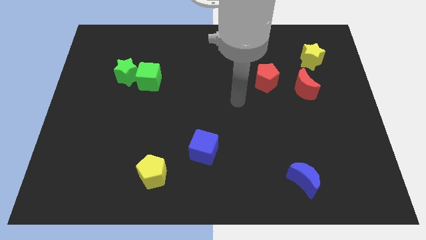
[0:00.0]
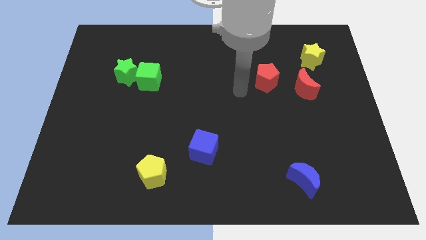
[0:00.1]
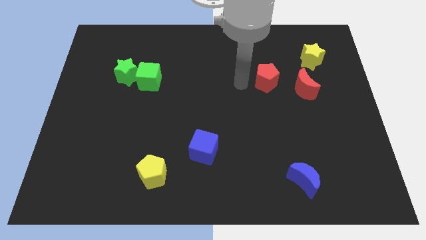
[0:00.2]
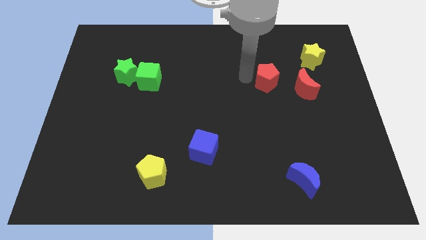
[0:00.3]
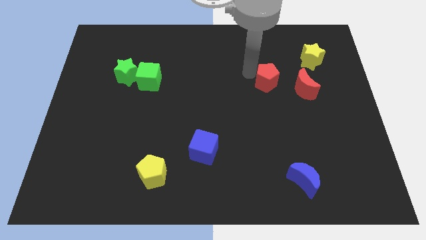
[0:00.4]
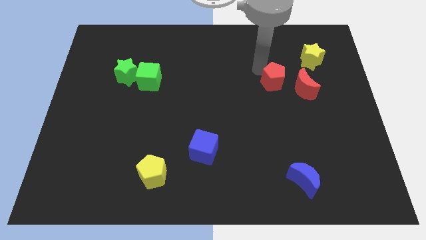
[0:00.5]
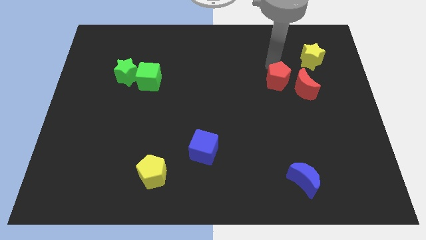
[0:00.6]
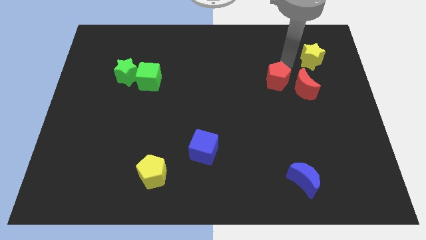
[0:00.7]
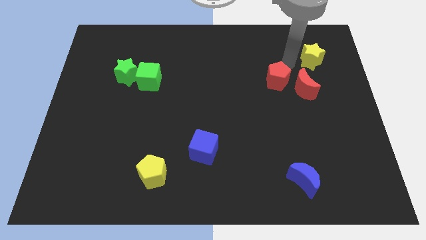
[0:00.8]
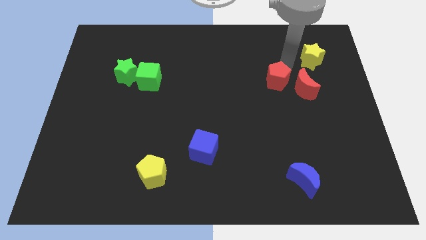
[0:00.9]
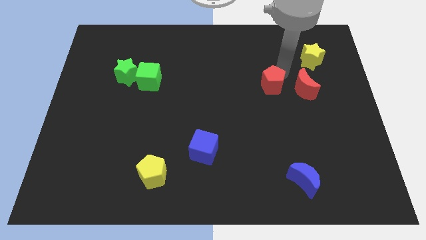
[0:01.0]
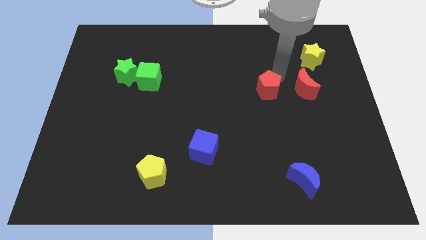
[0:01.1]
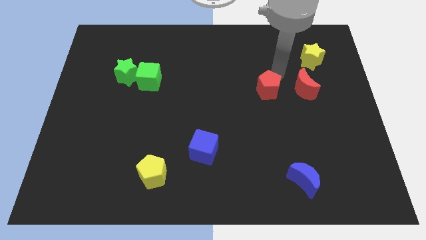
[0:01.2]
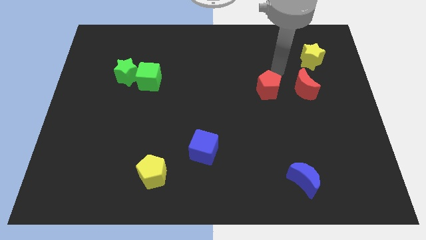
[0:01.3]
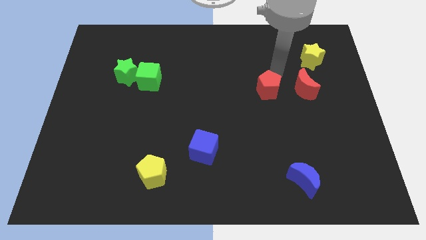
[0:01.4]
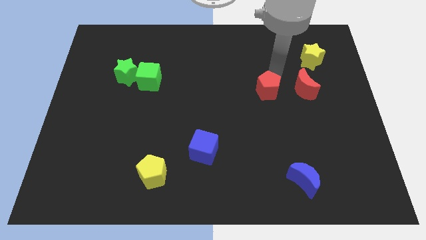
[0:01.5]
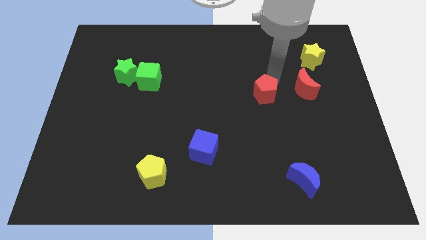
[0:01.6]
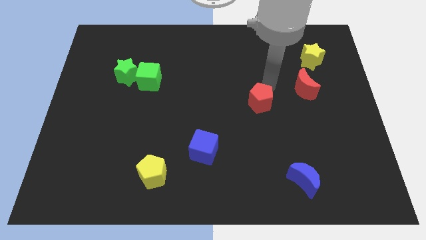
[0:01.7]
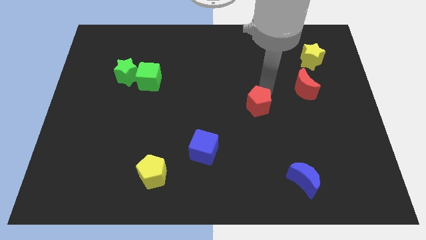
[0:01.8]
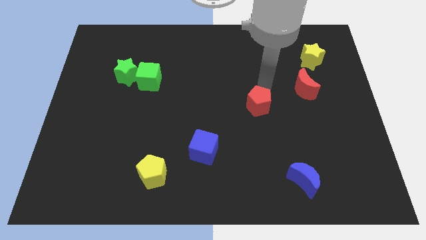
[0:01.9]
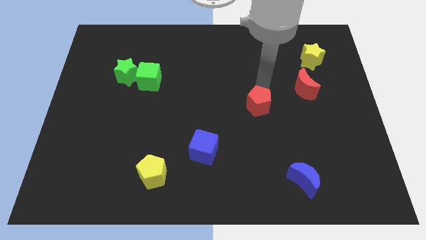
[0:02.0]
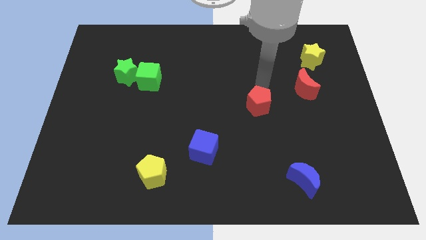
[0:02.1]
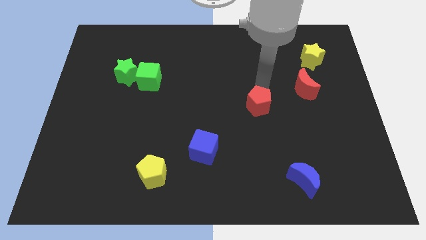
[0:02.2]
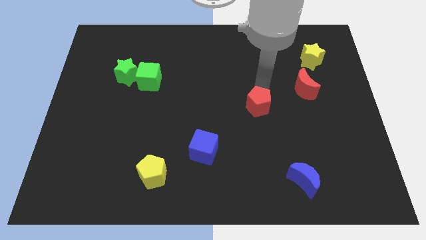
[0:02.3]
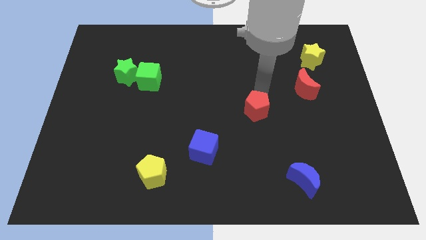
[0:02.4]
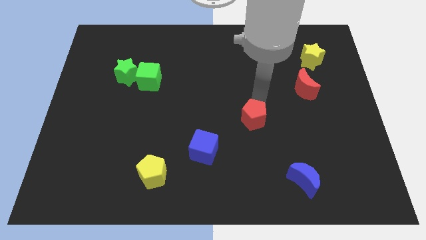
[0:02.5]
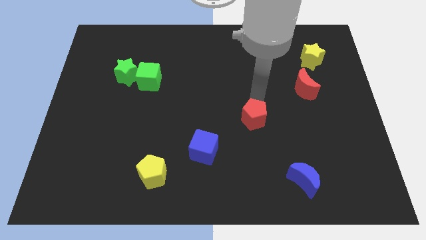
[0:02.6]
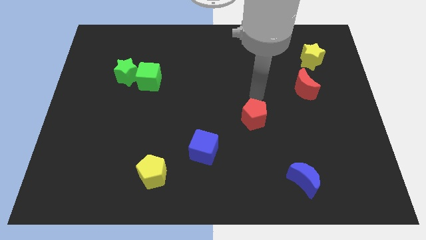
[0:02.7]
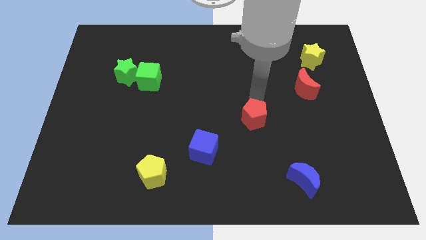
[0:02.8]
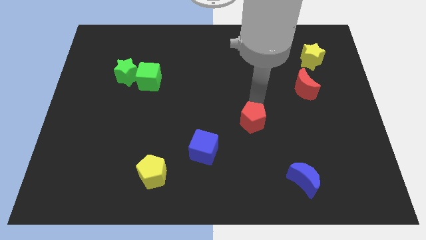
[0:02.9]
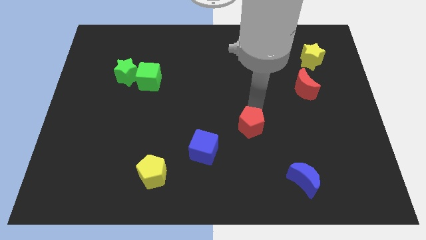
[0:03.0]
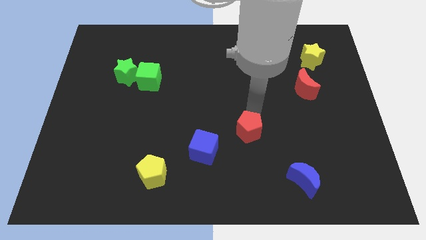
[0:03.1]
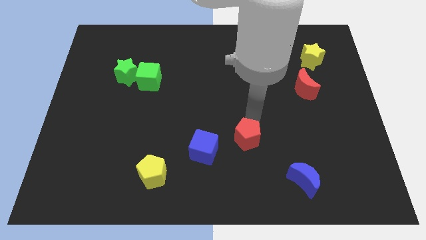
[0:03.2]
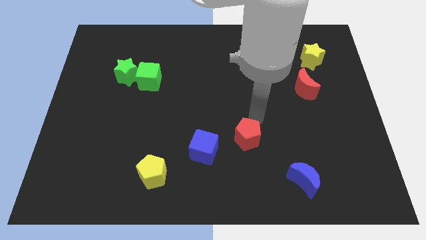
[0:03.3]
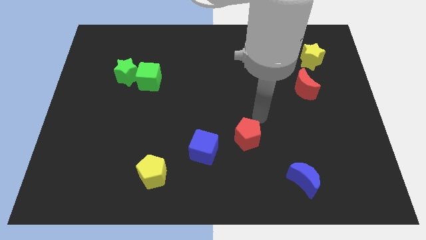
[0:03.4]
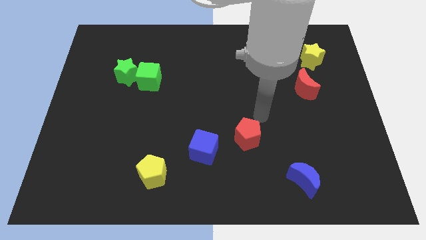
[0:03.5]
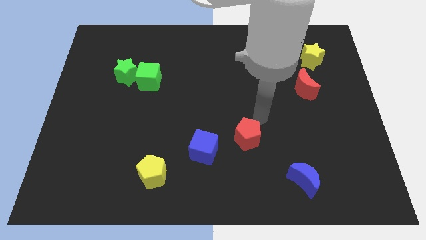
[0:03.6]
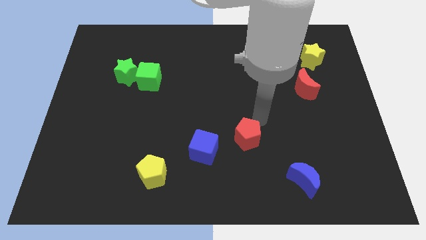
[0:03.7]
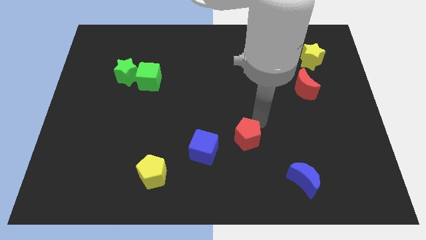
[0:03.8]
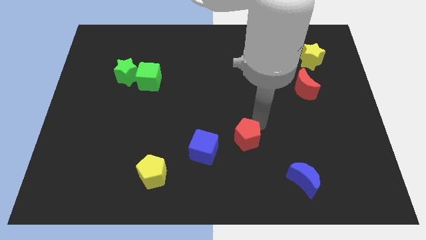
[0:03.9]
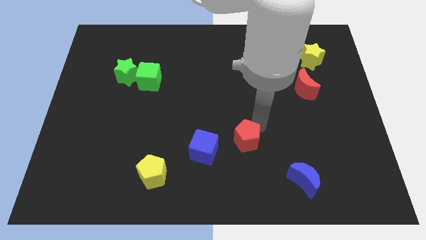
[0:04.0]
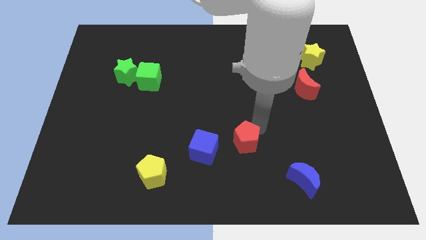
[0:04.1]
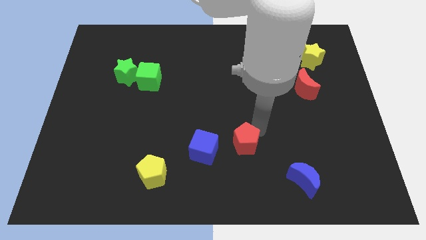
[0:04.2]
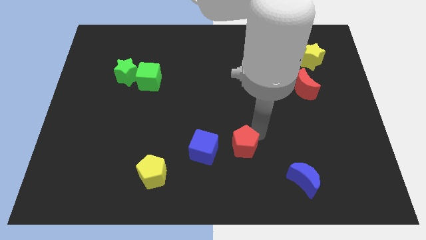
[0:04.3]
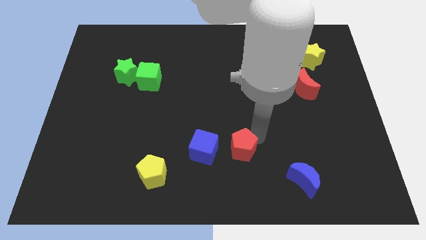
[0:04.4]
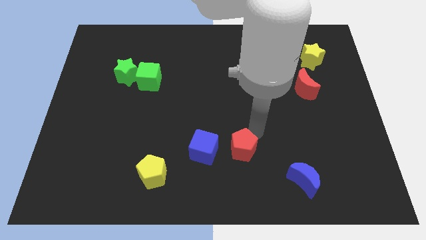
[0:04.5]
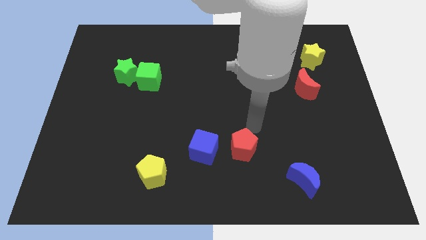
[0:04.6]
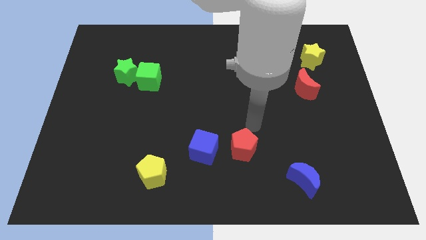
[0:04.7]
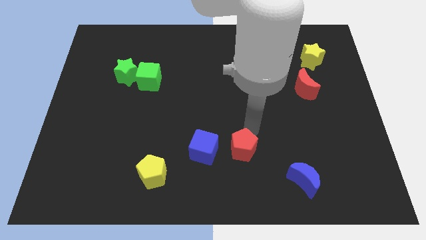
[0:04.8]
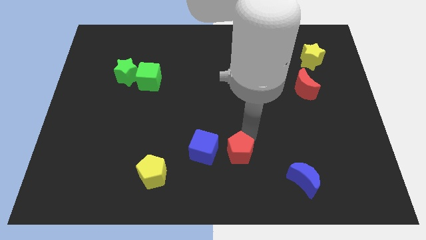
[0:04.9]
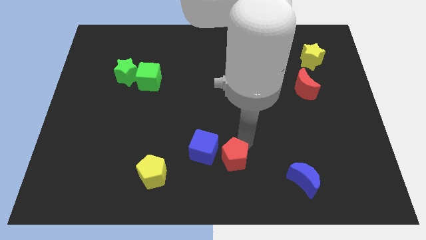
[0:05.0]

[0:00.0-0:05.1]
push the red pentagon to the bottom side

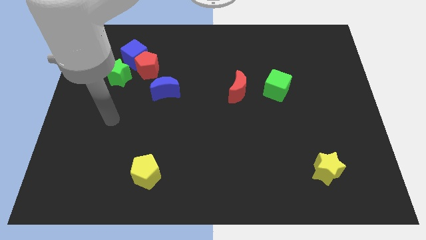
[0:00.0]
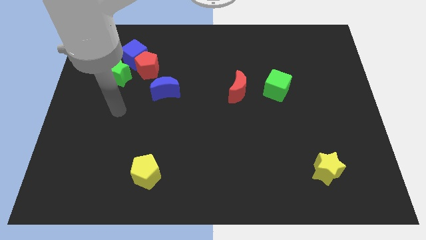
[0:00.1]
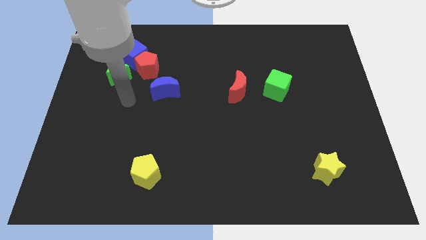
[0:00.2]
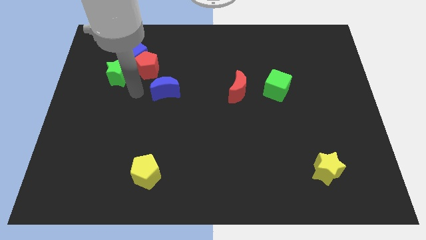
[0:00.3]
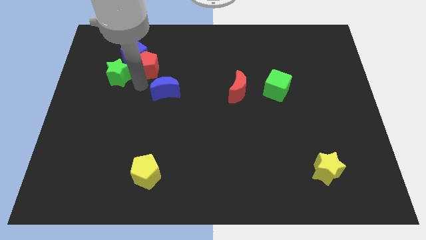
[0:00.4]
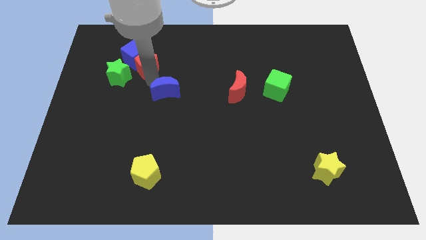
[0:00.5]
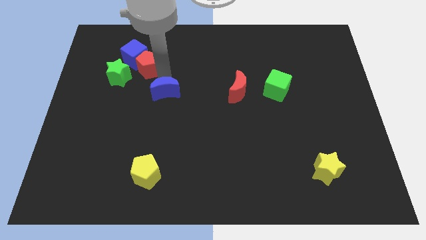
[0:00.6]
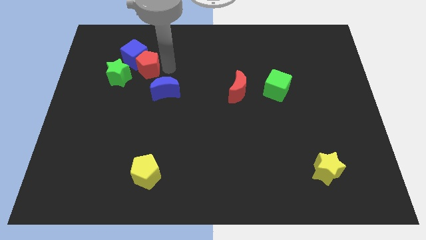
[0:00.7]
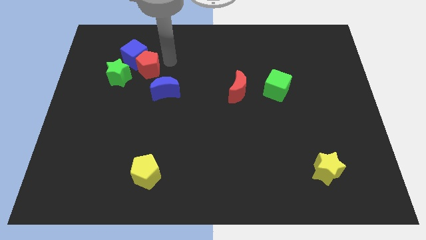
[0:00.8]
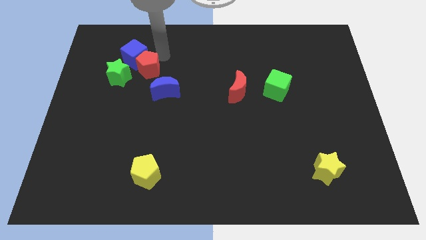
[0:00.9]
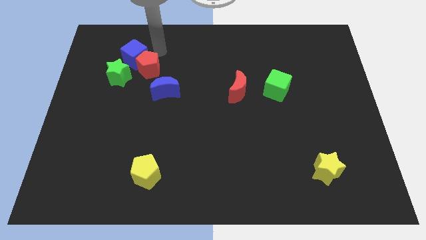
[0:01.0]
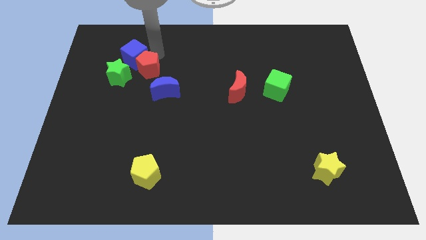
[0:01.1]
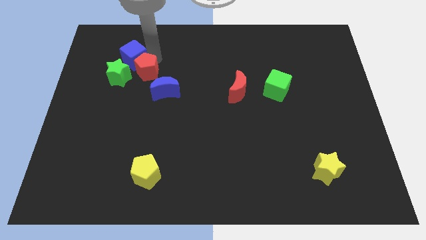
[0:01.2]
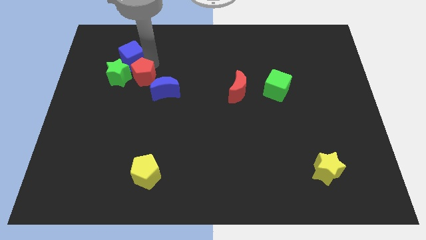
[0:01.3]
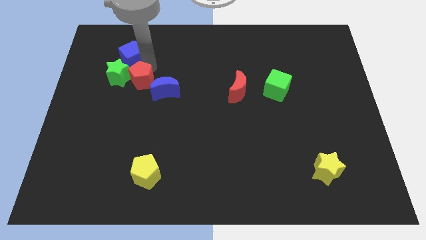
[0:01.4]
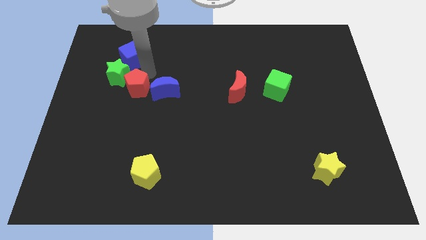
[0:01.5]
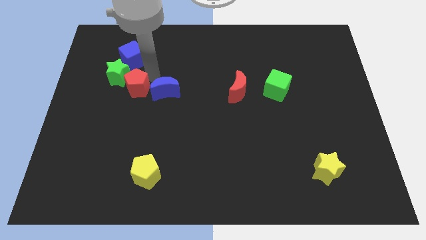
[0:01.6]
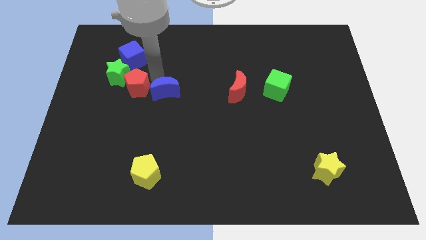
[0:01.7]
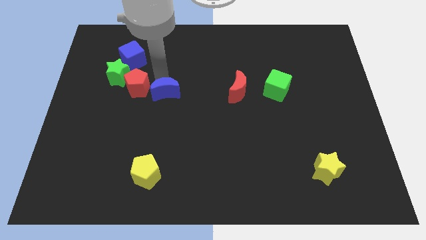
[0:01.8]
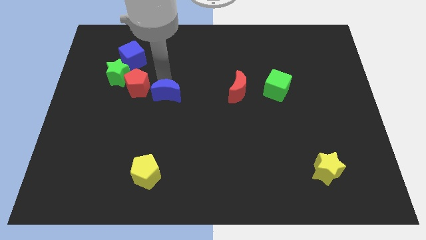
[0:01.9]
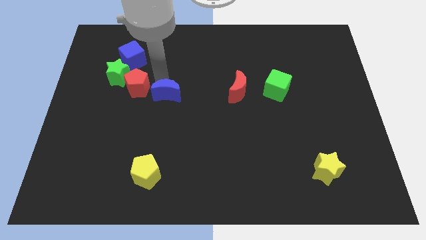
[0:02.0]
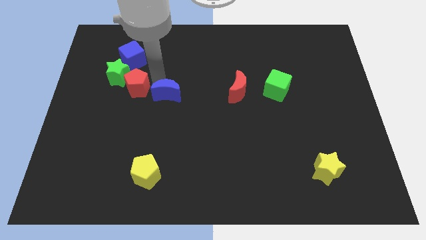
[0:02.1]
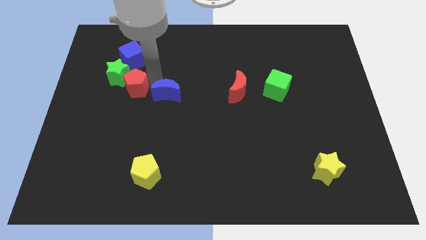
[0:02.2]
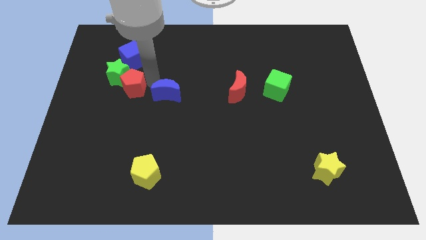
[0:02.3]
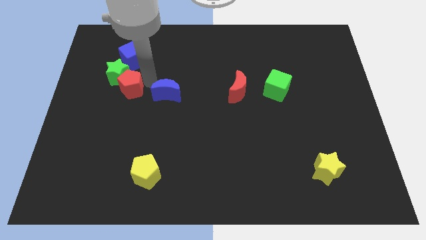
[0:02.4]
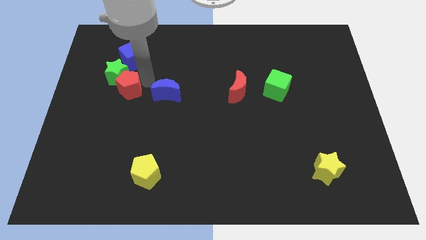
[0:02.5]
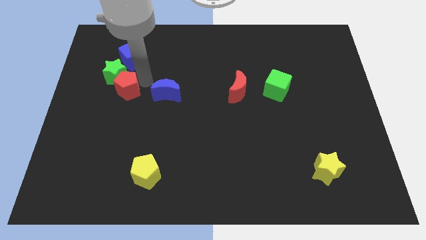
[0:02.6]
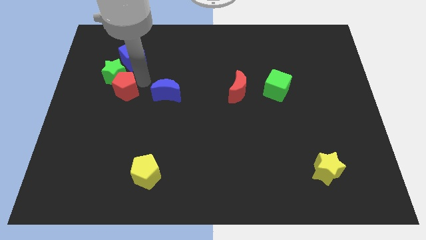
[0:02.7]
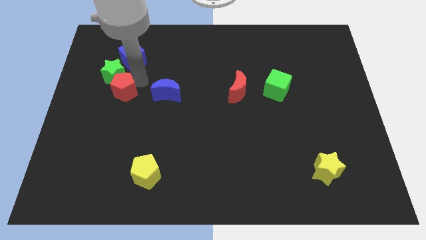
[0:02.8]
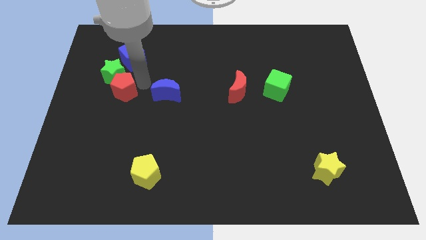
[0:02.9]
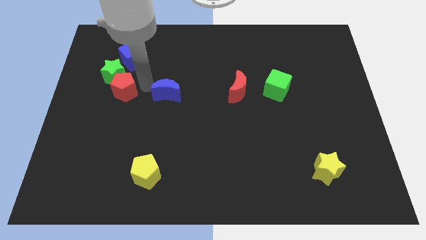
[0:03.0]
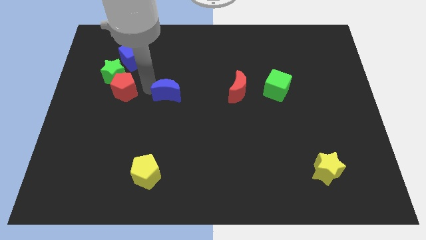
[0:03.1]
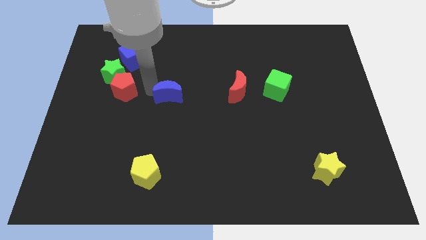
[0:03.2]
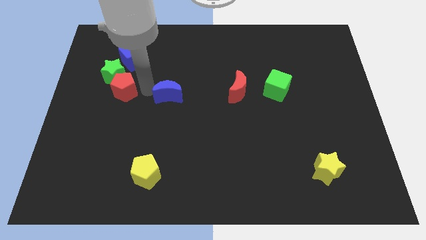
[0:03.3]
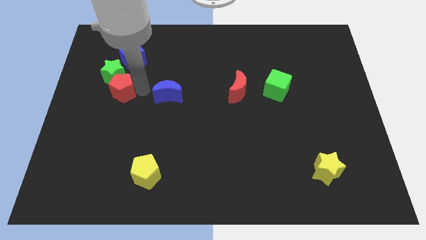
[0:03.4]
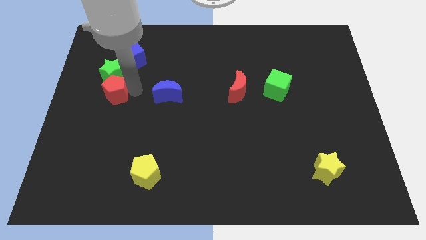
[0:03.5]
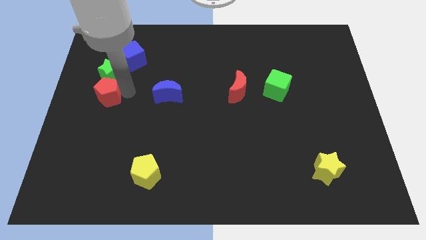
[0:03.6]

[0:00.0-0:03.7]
move the red pentagon to the left side
